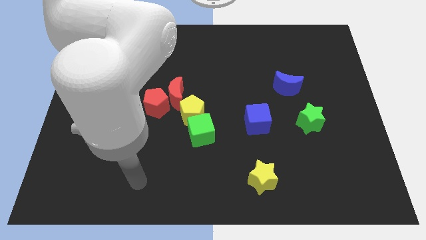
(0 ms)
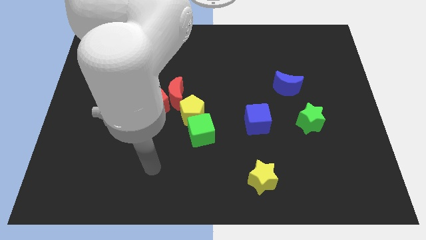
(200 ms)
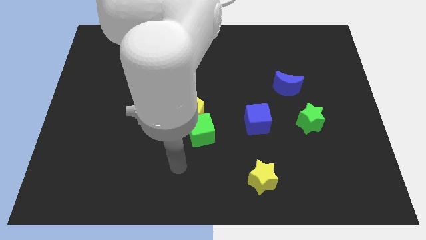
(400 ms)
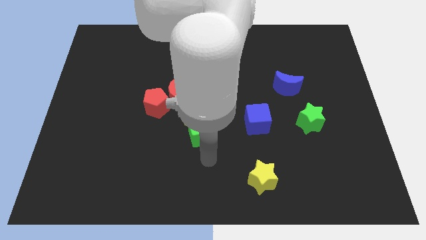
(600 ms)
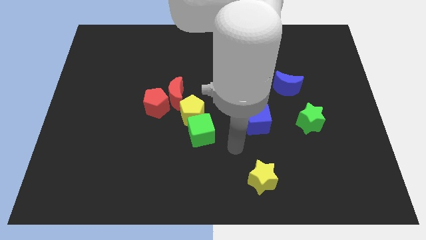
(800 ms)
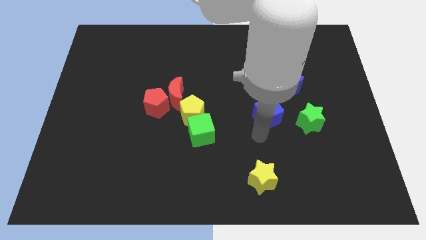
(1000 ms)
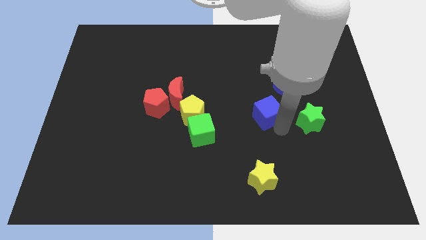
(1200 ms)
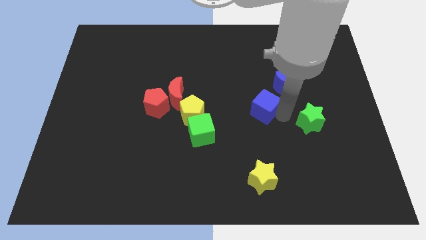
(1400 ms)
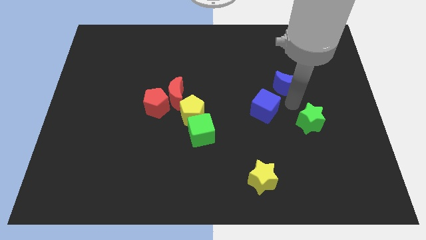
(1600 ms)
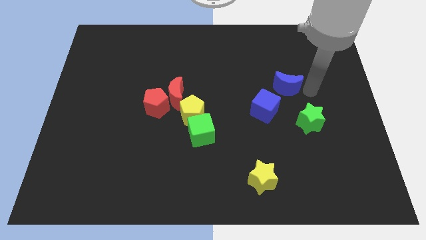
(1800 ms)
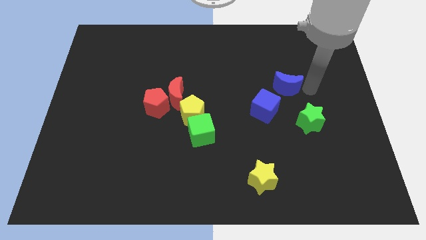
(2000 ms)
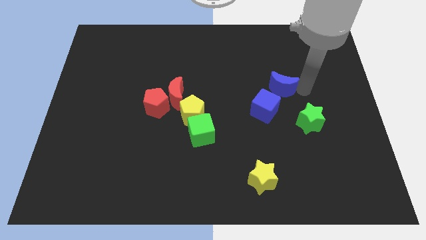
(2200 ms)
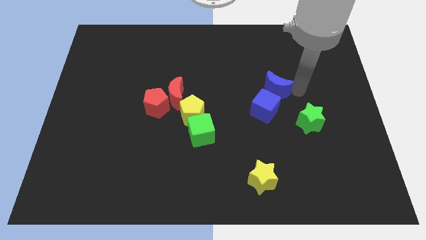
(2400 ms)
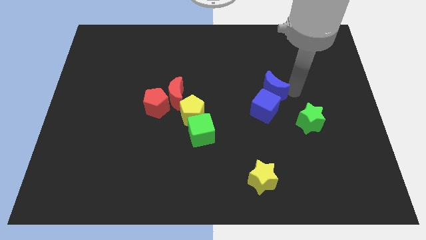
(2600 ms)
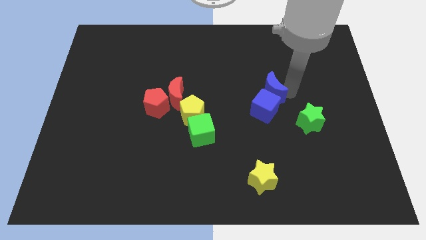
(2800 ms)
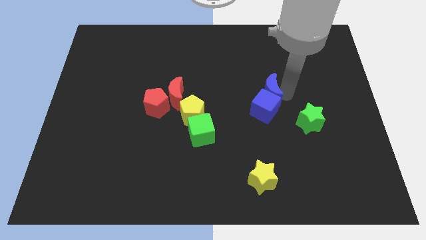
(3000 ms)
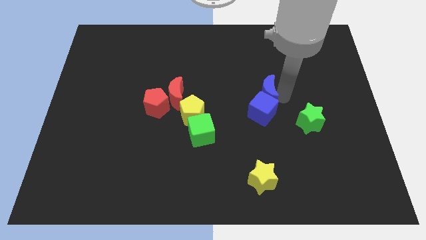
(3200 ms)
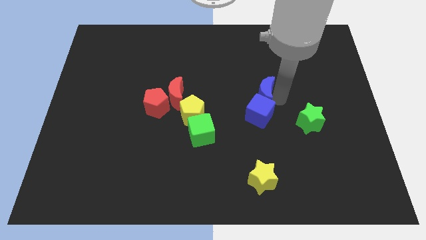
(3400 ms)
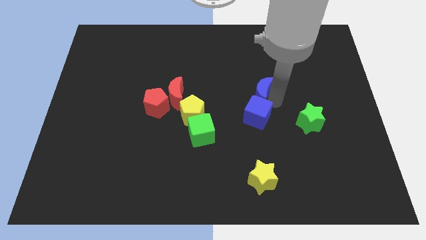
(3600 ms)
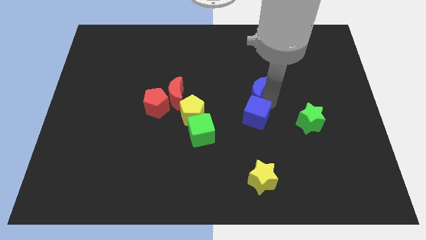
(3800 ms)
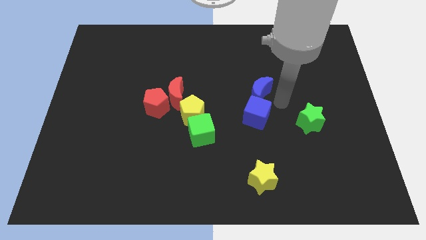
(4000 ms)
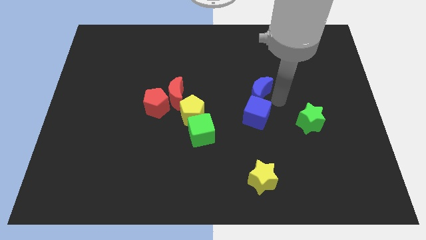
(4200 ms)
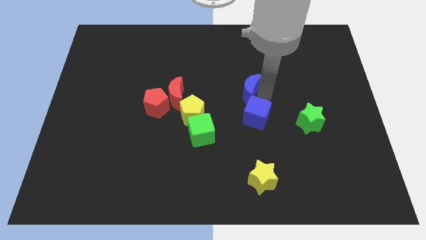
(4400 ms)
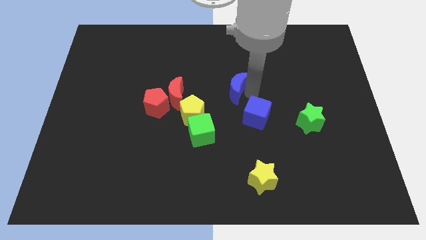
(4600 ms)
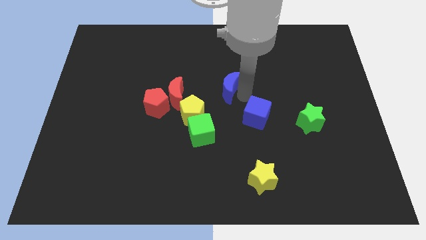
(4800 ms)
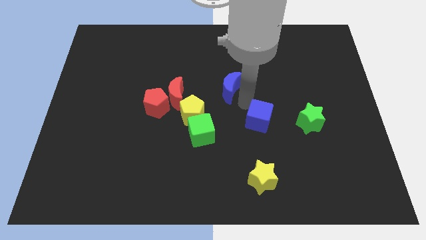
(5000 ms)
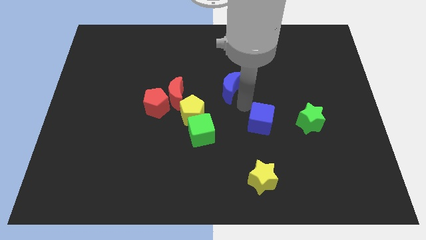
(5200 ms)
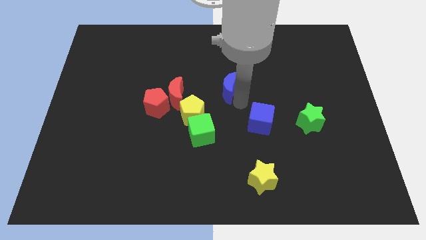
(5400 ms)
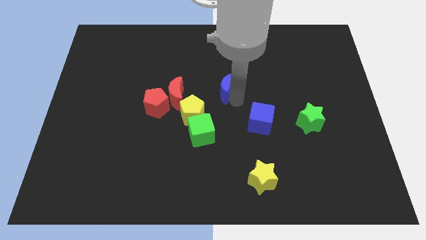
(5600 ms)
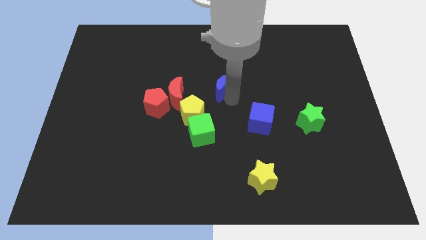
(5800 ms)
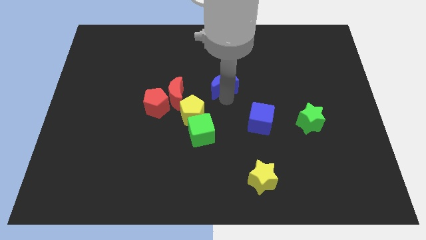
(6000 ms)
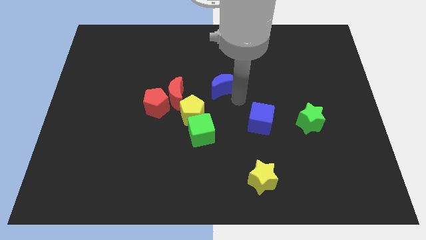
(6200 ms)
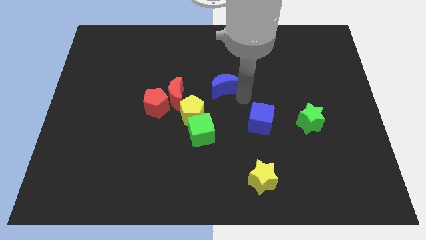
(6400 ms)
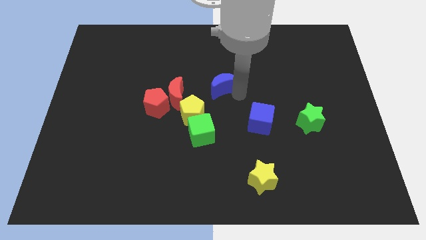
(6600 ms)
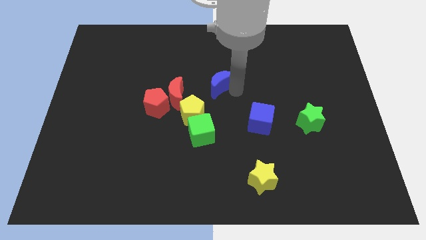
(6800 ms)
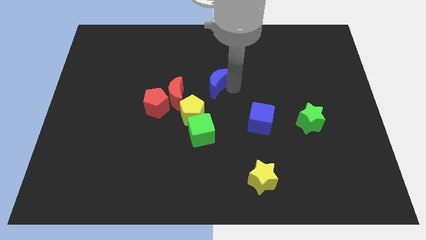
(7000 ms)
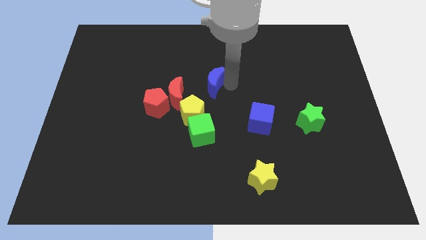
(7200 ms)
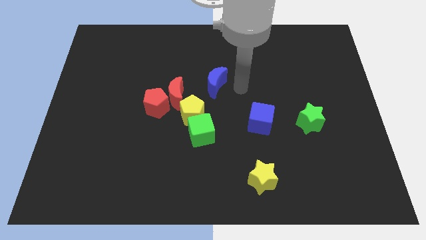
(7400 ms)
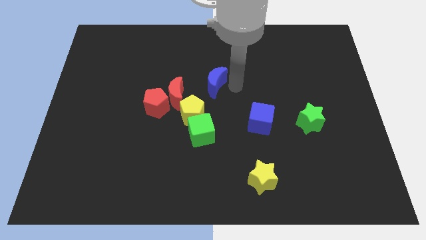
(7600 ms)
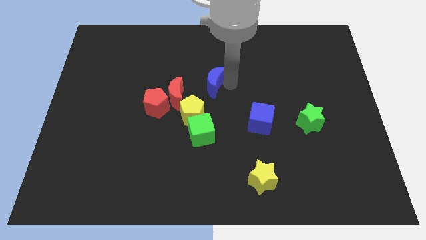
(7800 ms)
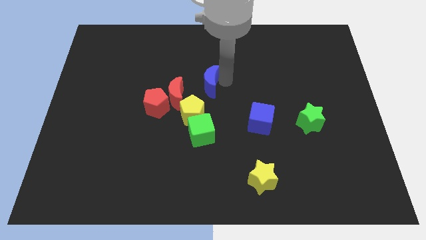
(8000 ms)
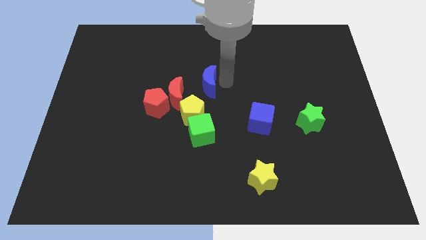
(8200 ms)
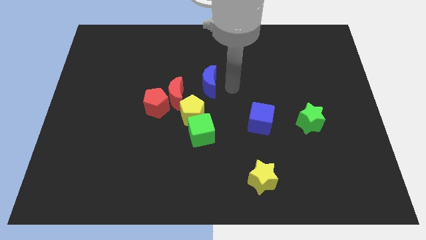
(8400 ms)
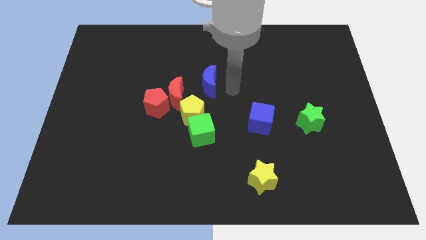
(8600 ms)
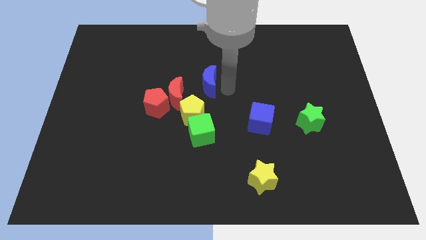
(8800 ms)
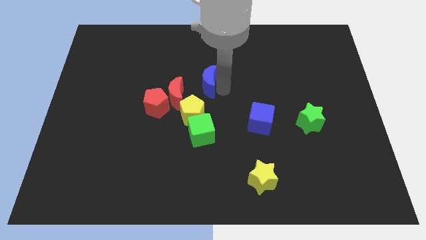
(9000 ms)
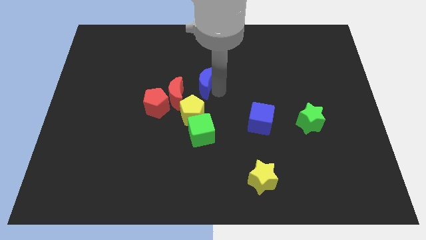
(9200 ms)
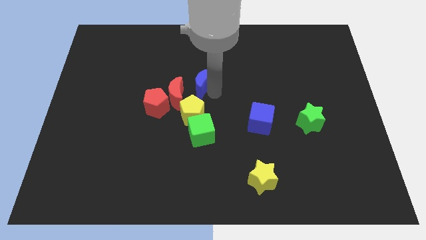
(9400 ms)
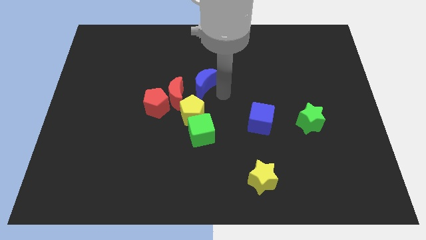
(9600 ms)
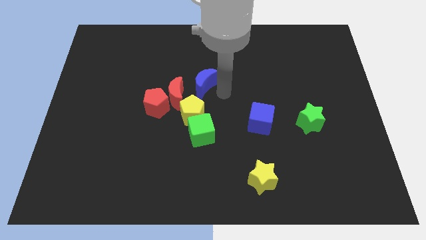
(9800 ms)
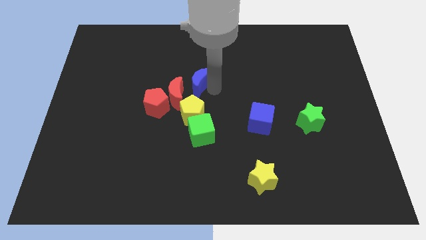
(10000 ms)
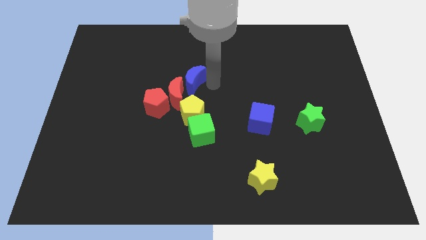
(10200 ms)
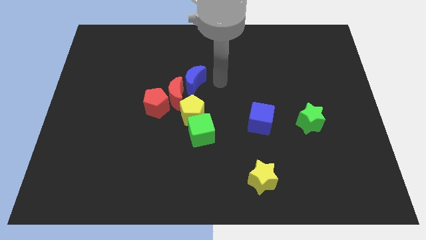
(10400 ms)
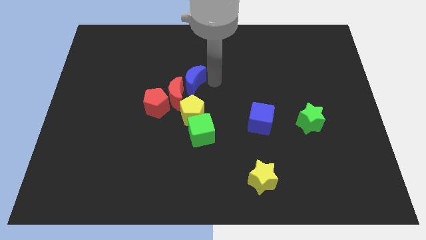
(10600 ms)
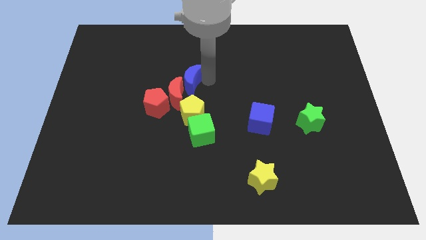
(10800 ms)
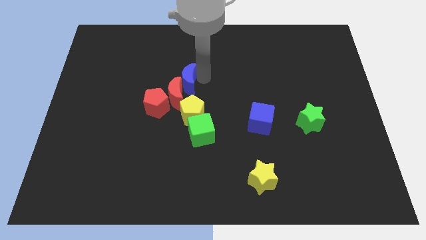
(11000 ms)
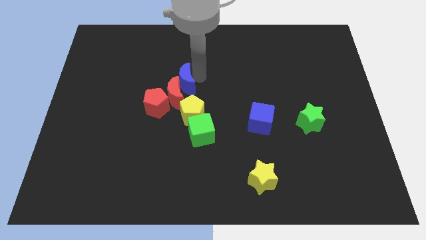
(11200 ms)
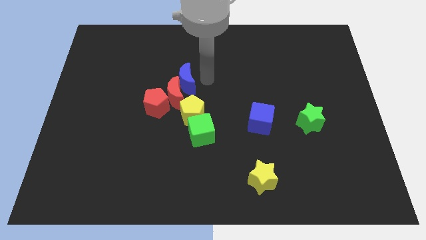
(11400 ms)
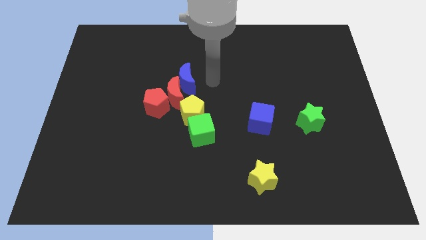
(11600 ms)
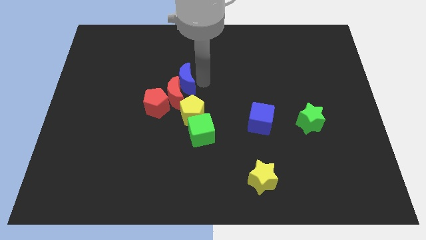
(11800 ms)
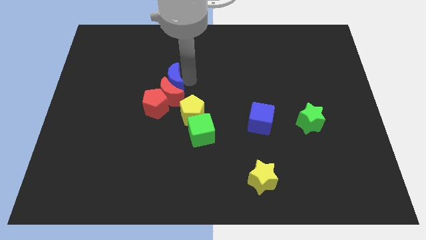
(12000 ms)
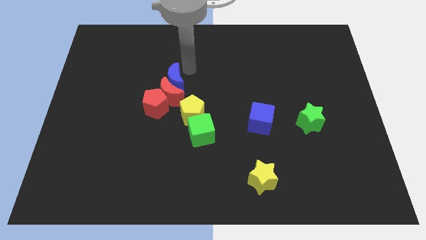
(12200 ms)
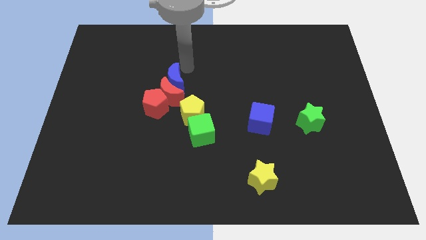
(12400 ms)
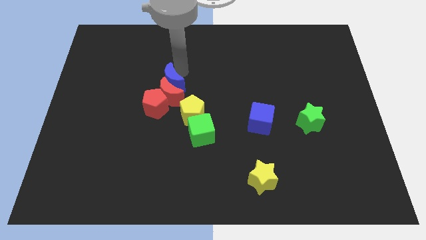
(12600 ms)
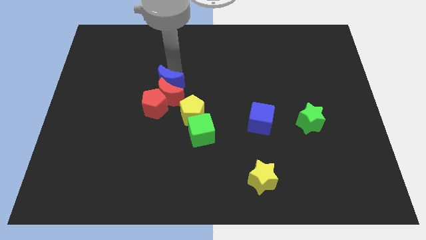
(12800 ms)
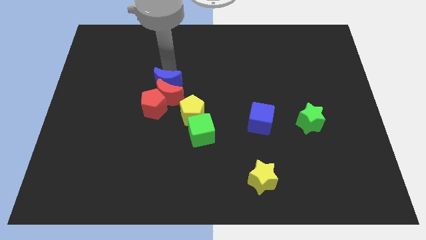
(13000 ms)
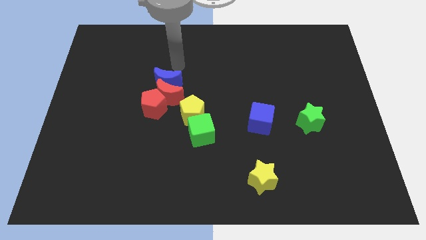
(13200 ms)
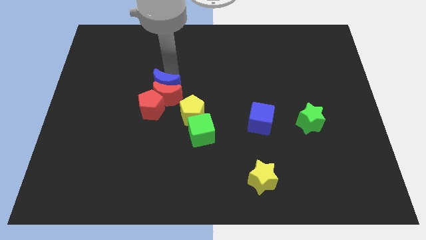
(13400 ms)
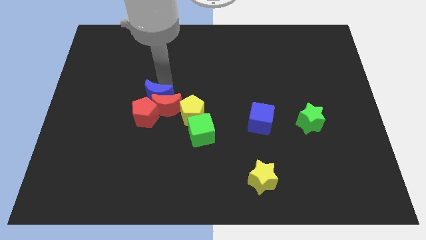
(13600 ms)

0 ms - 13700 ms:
push the blue moon towards the red pentagon
